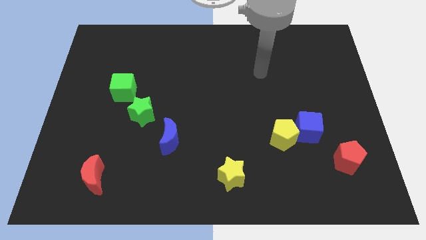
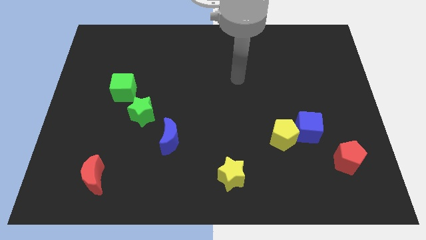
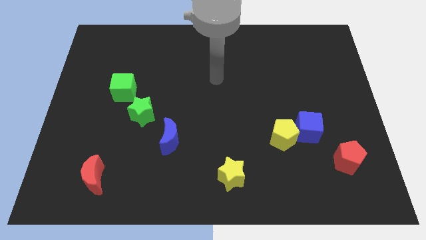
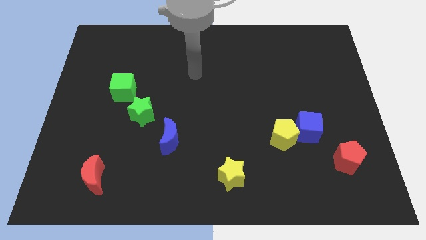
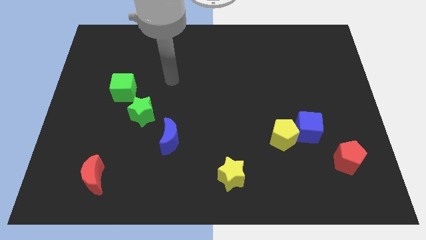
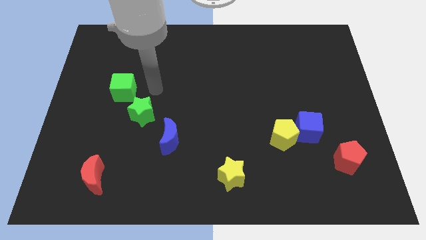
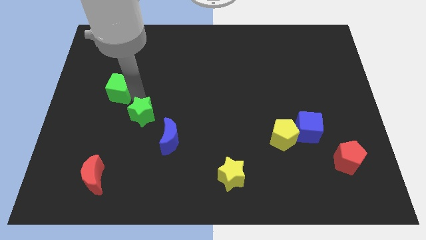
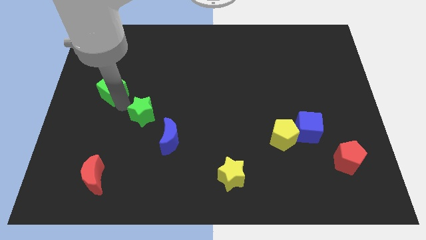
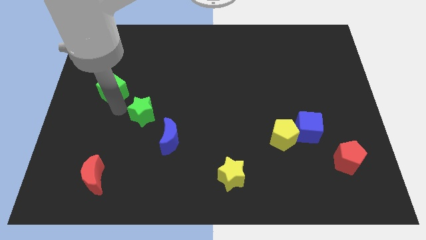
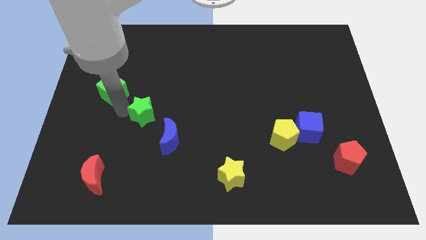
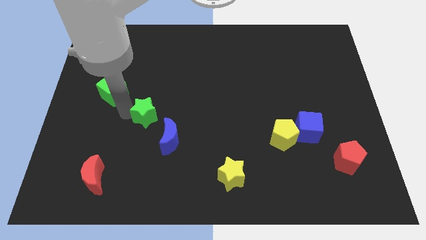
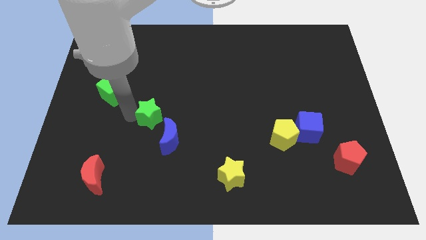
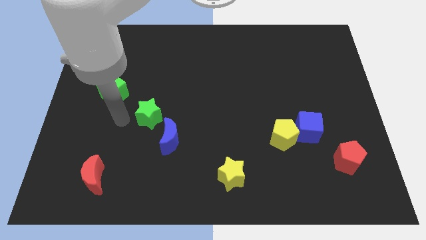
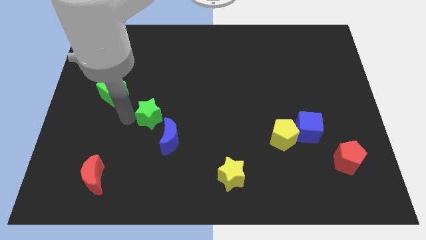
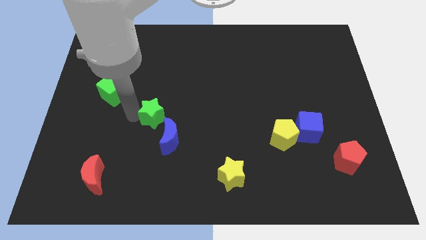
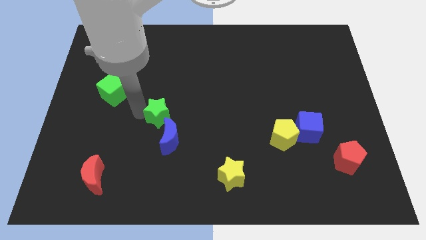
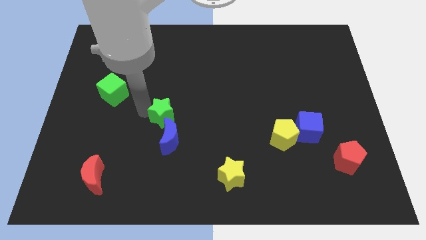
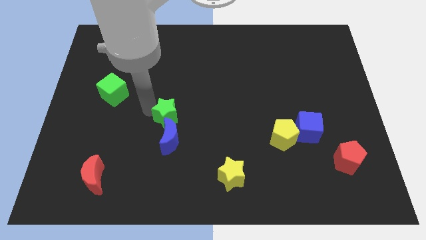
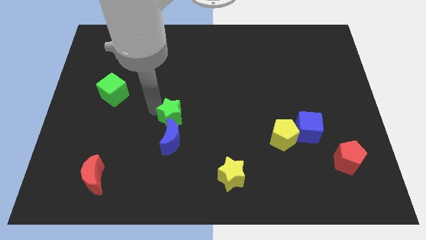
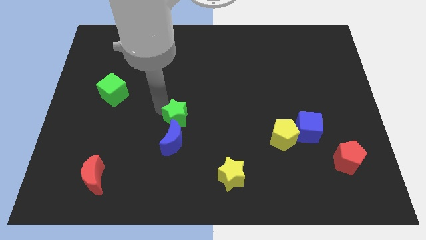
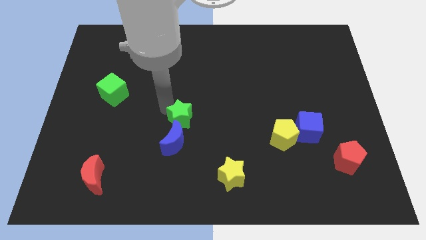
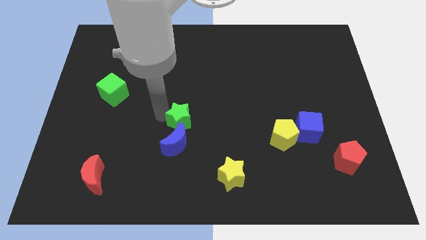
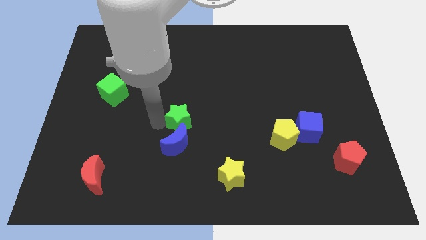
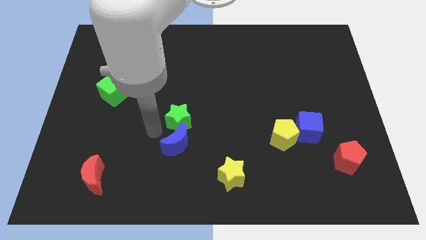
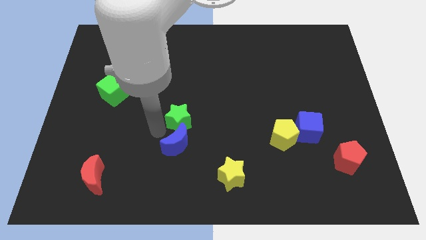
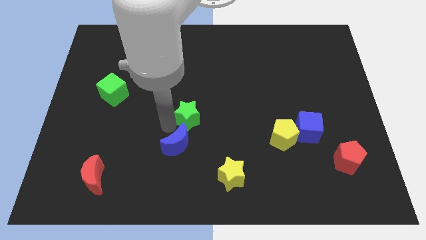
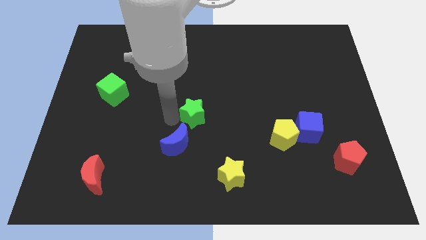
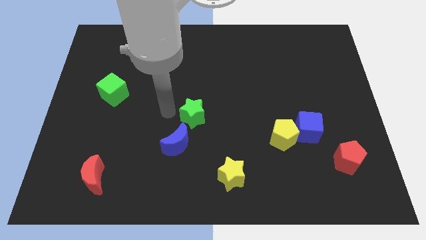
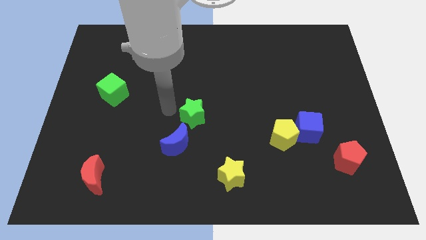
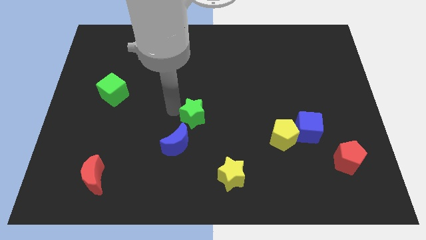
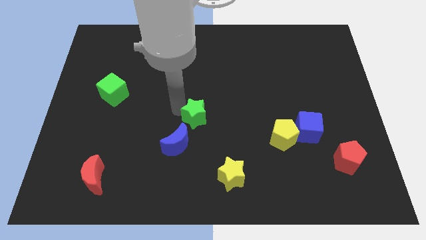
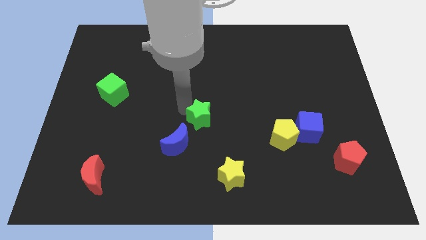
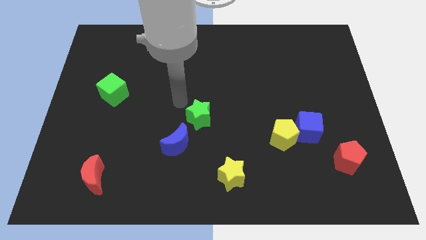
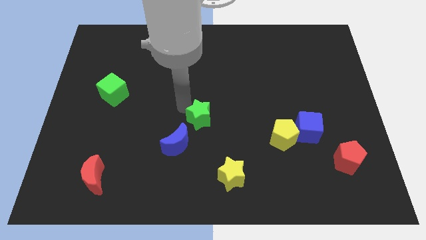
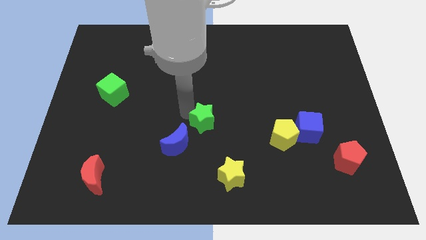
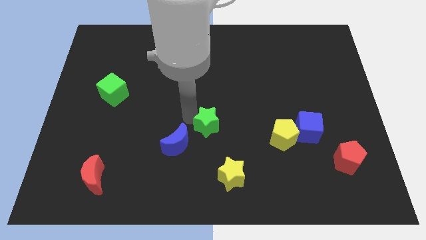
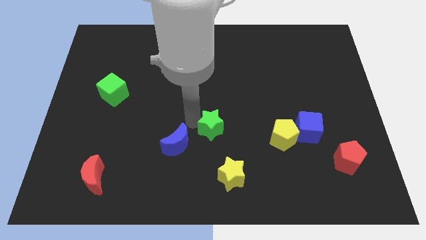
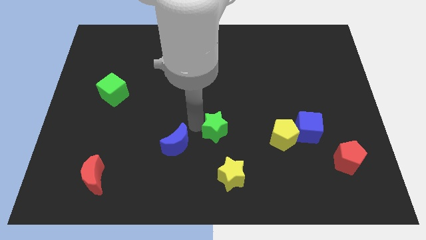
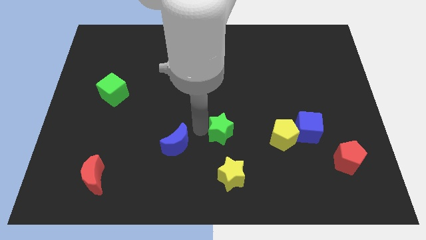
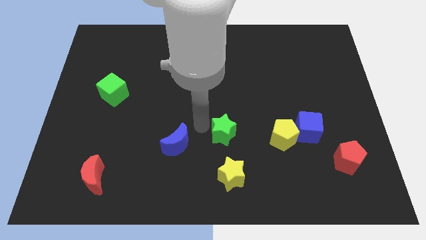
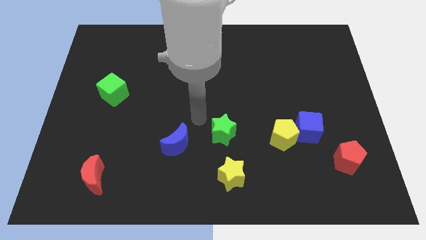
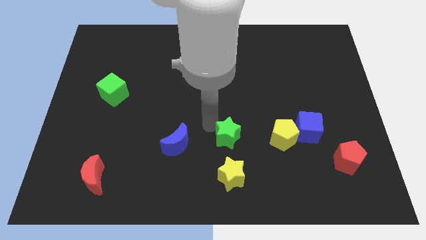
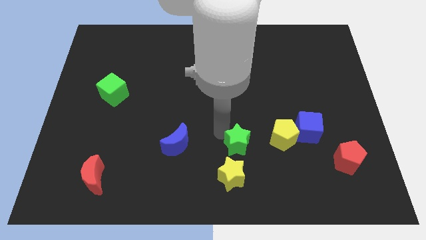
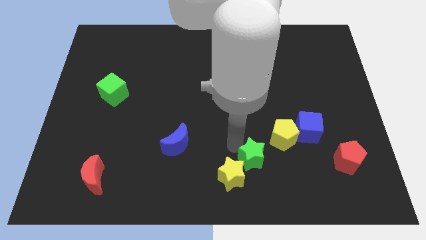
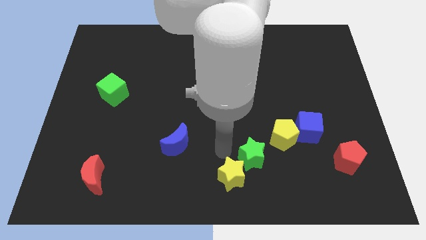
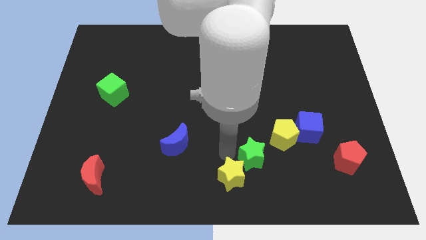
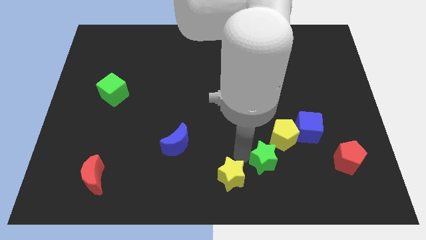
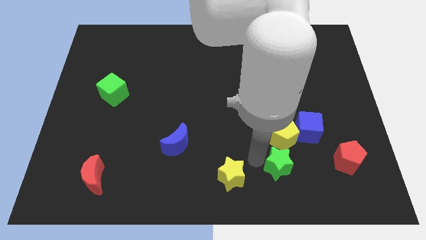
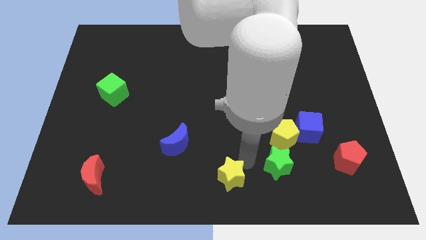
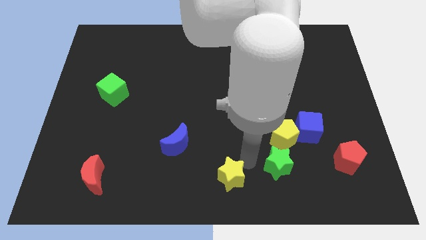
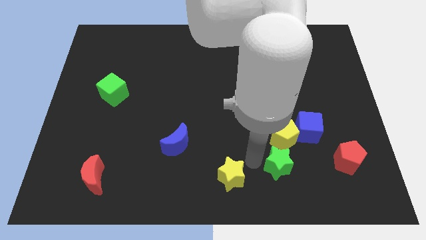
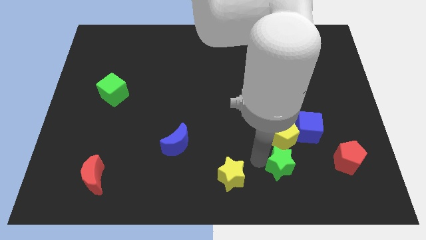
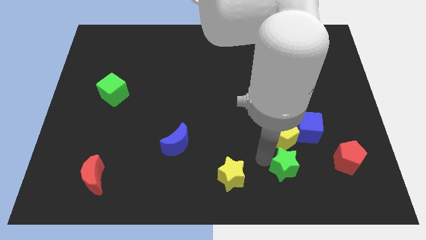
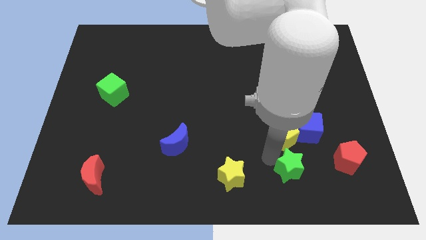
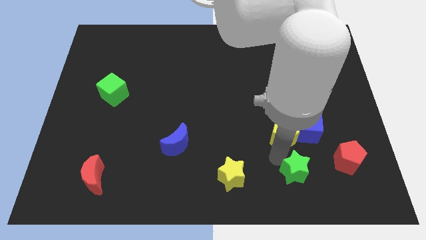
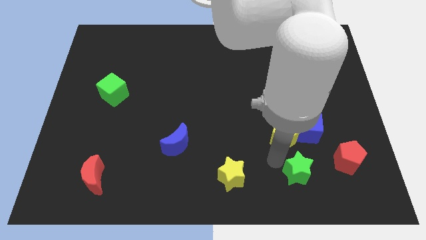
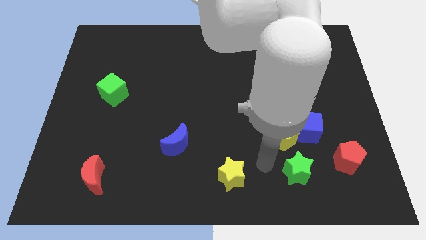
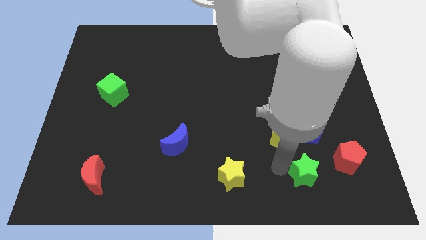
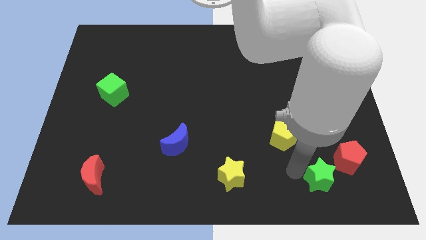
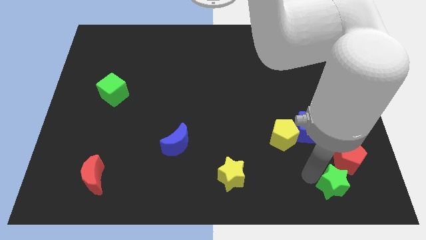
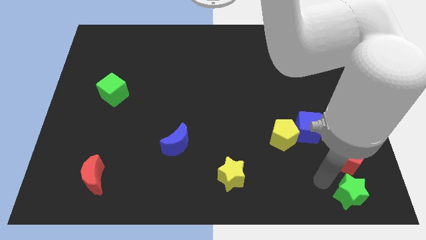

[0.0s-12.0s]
move the green star to the bottom right of the board
